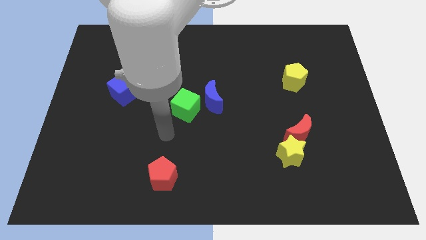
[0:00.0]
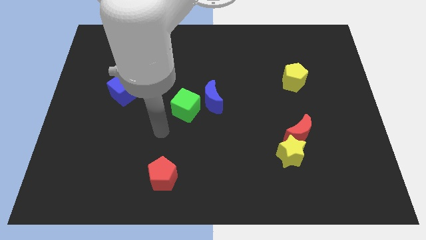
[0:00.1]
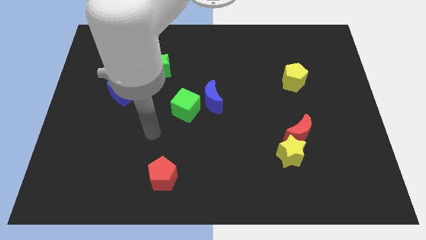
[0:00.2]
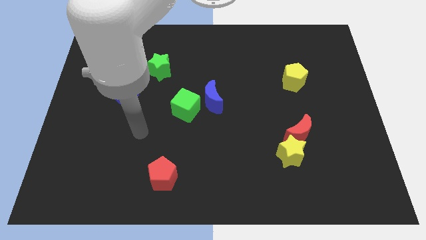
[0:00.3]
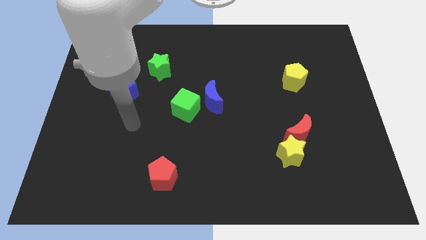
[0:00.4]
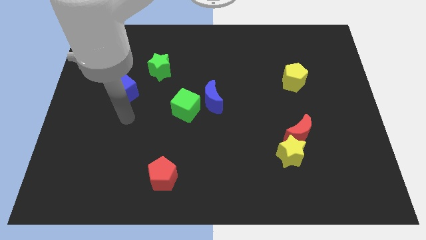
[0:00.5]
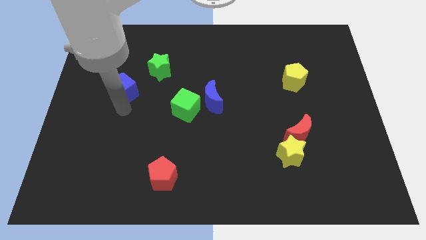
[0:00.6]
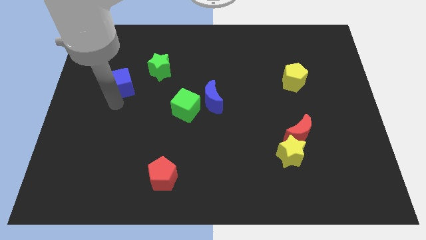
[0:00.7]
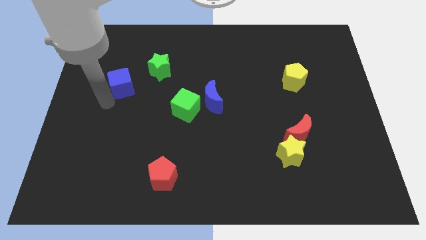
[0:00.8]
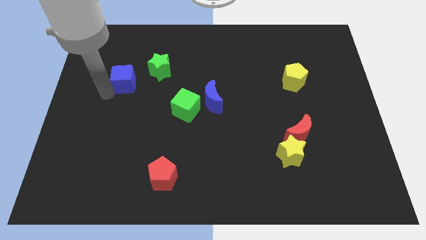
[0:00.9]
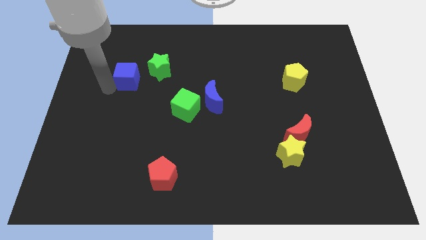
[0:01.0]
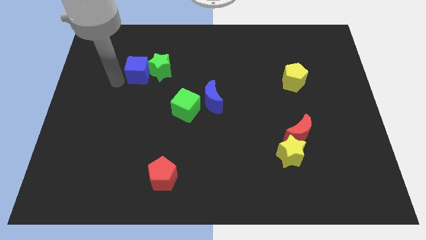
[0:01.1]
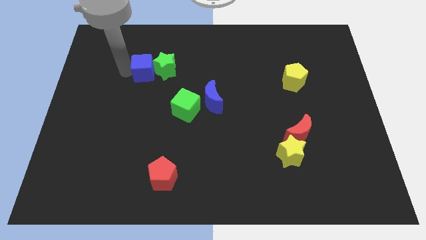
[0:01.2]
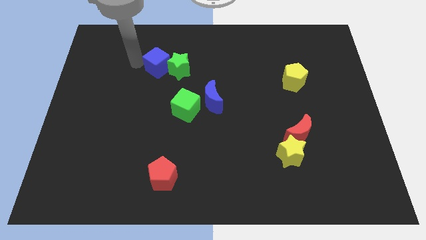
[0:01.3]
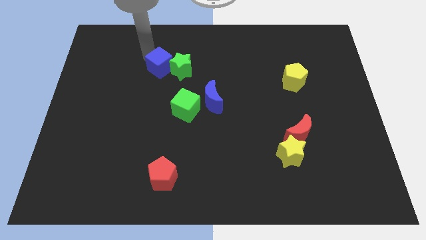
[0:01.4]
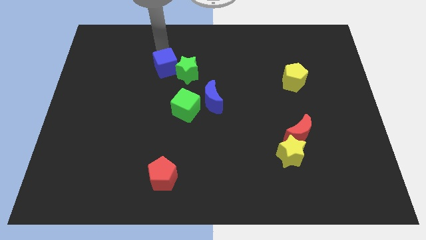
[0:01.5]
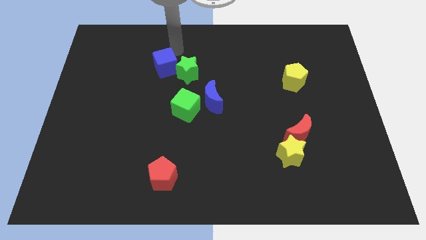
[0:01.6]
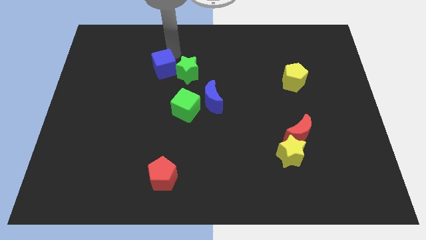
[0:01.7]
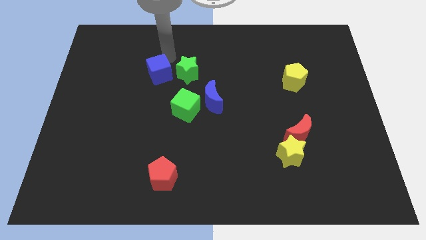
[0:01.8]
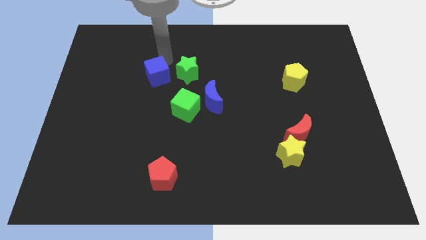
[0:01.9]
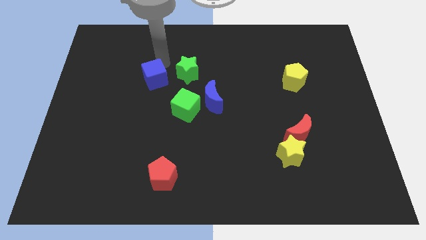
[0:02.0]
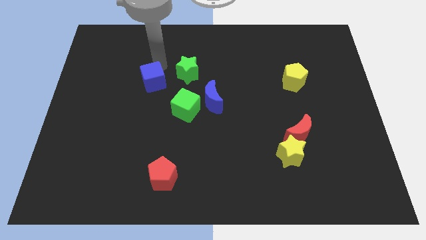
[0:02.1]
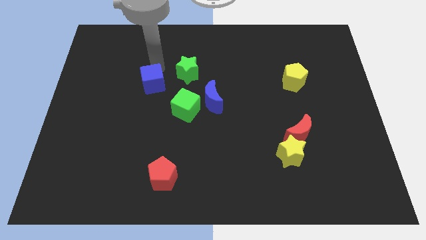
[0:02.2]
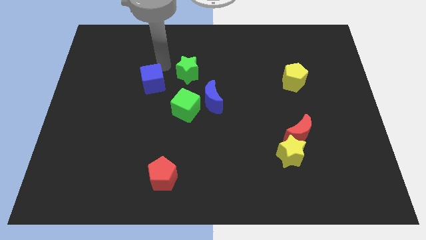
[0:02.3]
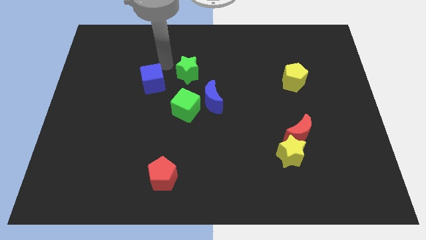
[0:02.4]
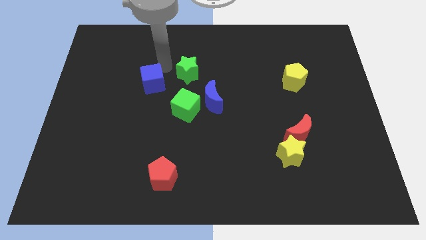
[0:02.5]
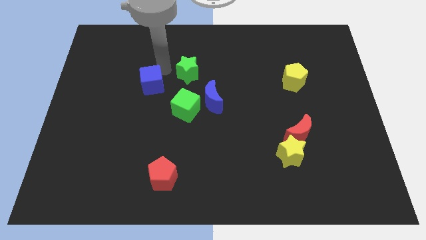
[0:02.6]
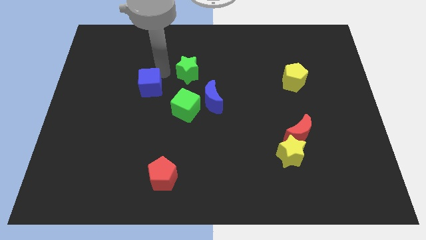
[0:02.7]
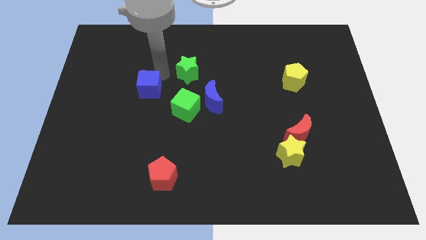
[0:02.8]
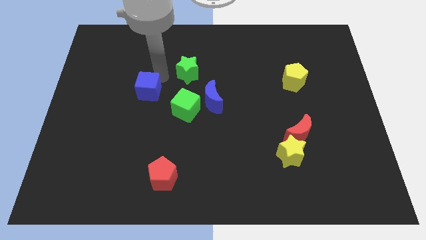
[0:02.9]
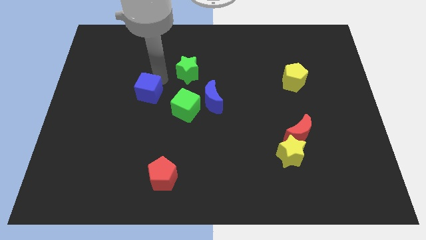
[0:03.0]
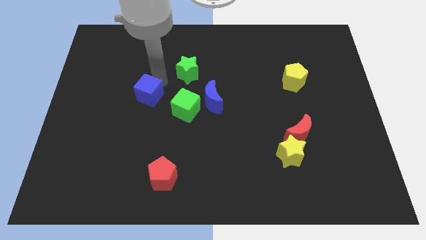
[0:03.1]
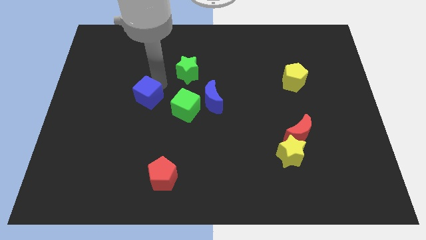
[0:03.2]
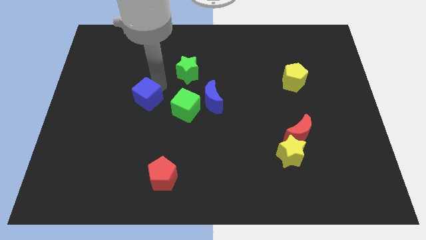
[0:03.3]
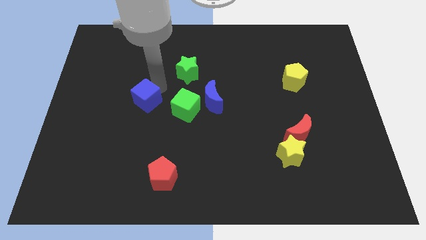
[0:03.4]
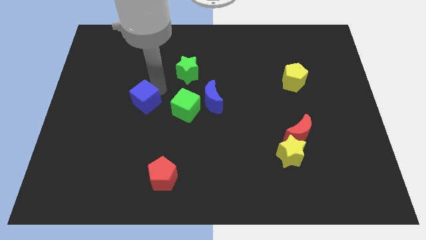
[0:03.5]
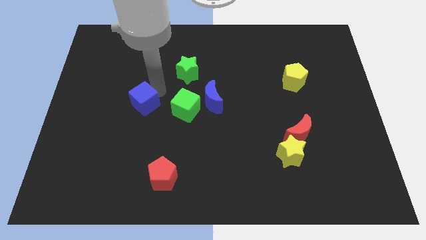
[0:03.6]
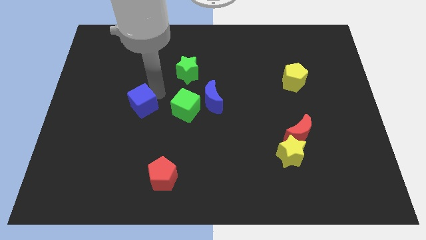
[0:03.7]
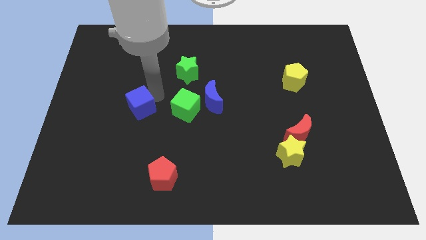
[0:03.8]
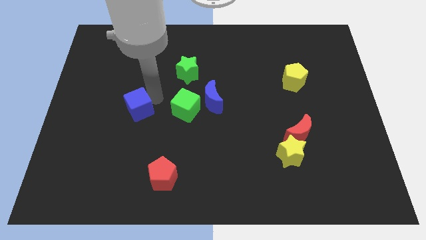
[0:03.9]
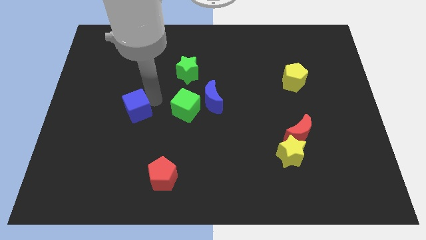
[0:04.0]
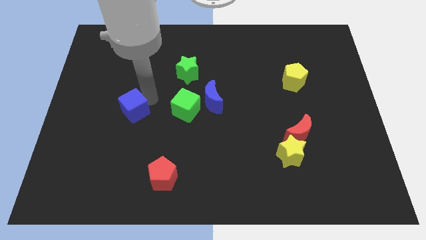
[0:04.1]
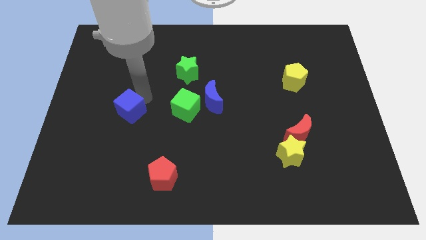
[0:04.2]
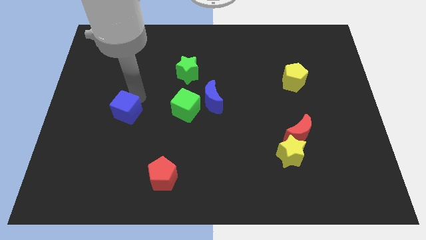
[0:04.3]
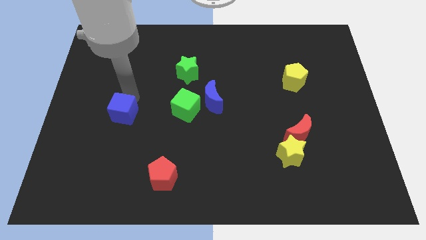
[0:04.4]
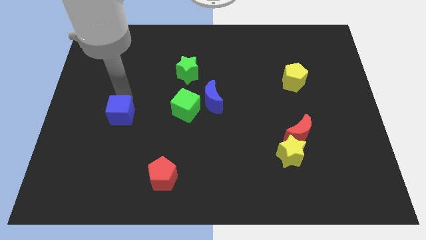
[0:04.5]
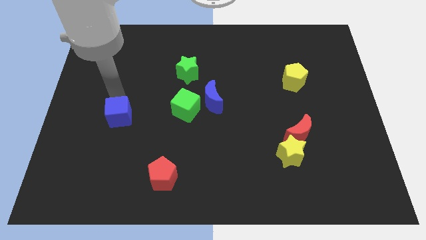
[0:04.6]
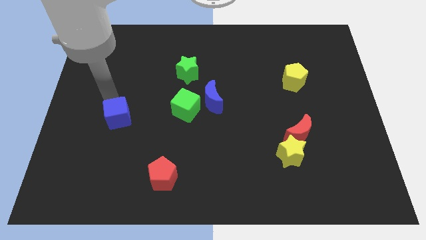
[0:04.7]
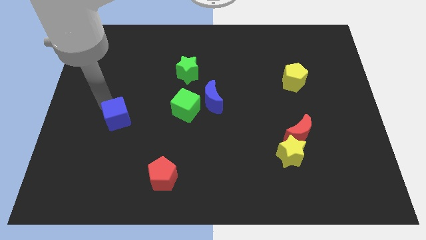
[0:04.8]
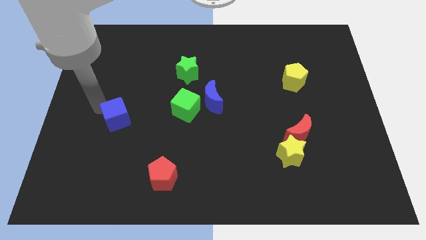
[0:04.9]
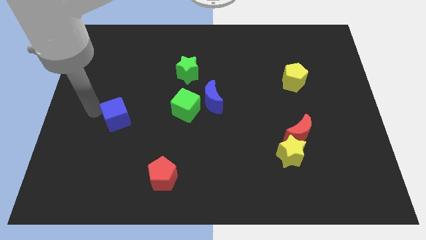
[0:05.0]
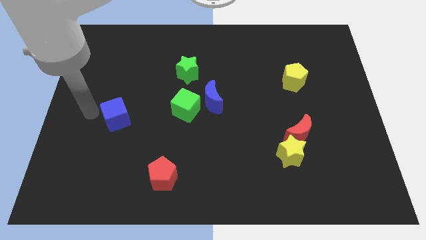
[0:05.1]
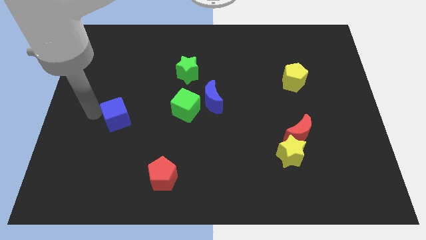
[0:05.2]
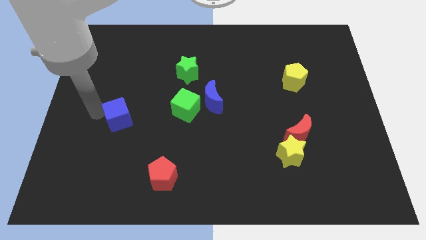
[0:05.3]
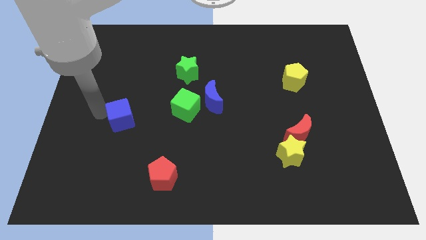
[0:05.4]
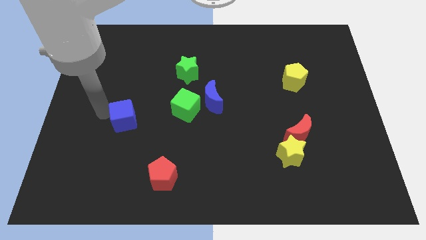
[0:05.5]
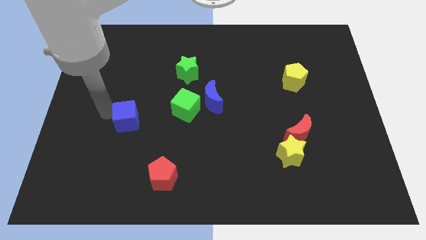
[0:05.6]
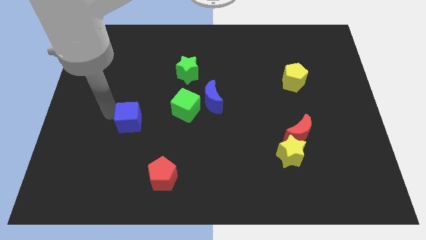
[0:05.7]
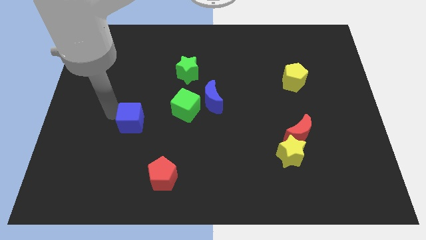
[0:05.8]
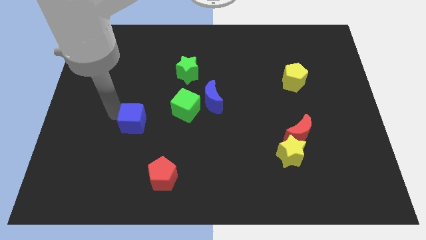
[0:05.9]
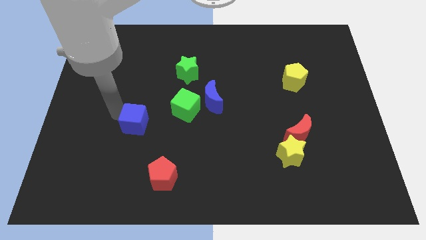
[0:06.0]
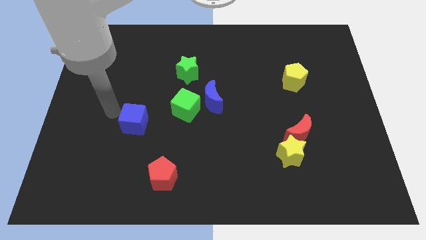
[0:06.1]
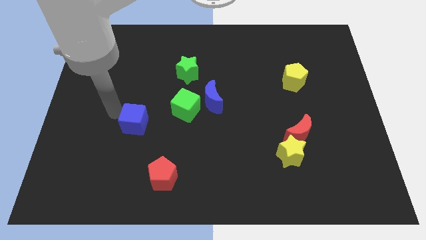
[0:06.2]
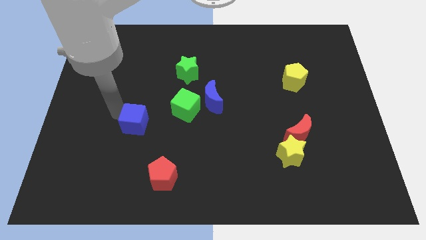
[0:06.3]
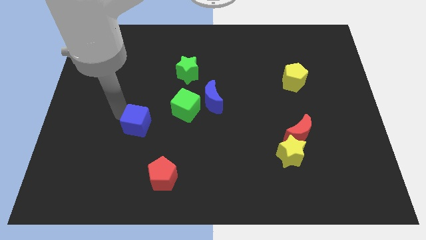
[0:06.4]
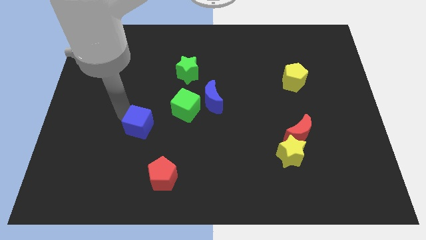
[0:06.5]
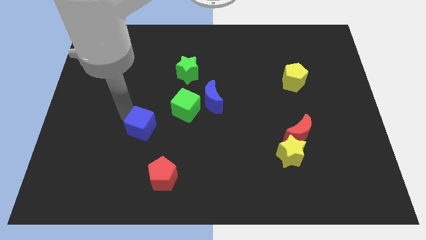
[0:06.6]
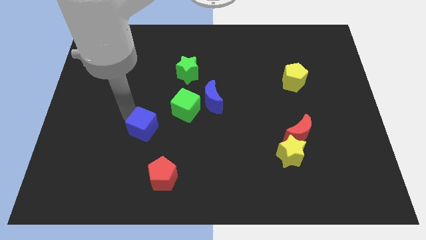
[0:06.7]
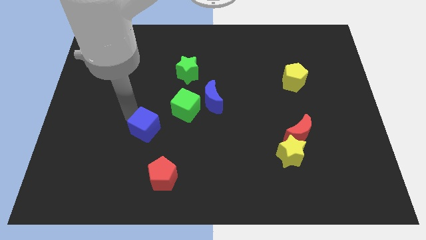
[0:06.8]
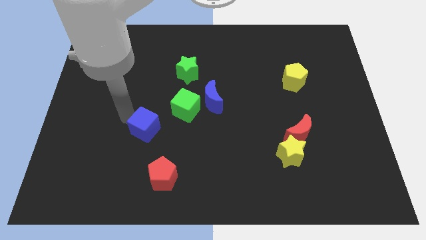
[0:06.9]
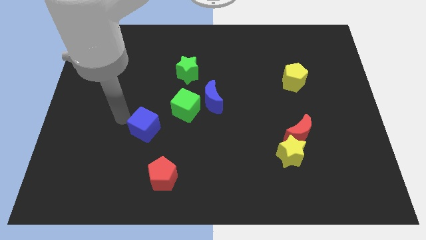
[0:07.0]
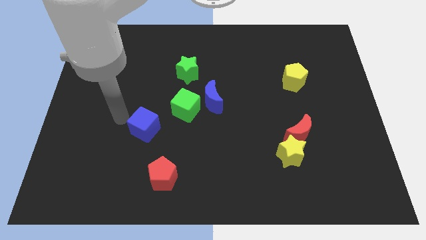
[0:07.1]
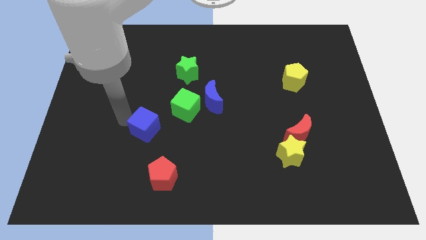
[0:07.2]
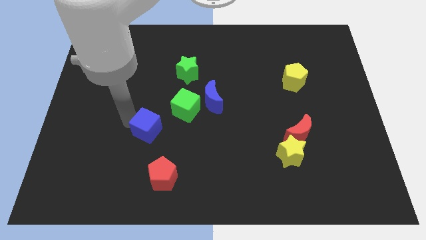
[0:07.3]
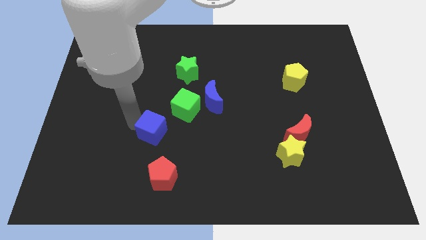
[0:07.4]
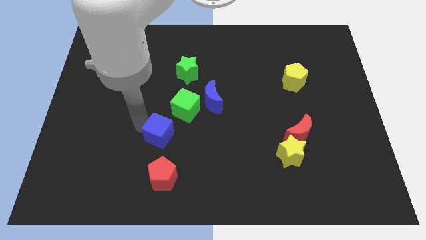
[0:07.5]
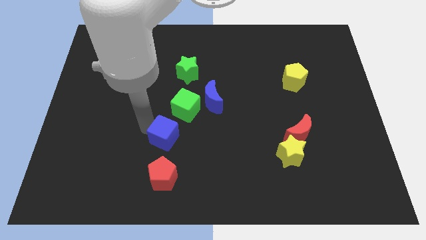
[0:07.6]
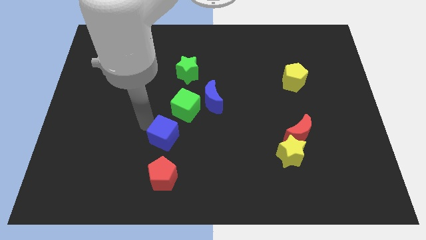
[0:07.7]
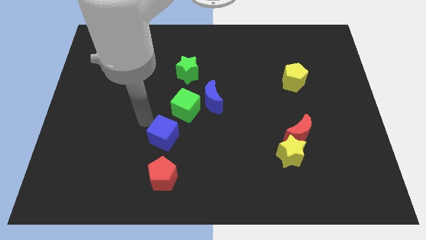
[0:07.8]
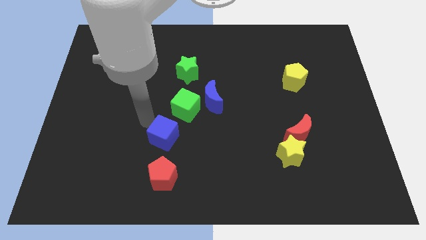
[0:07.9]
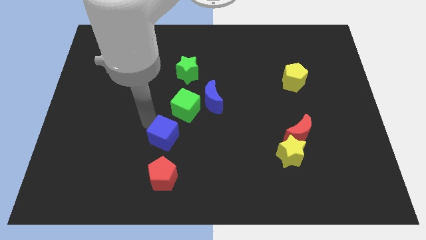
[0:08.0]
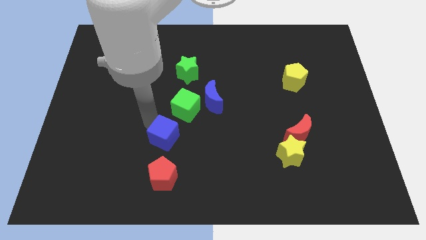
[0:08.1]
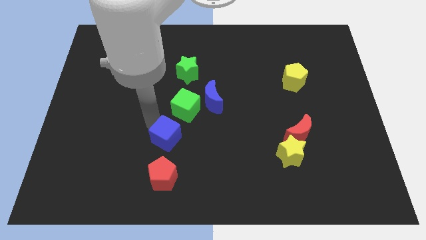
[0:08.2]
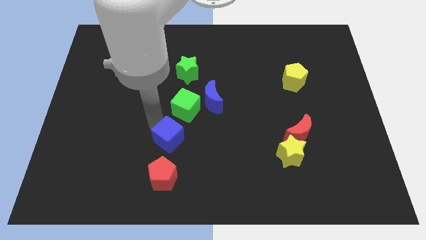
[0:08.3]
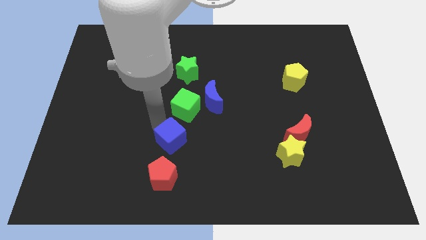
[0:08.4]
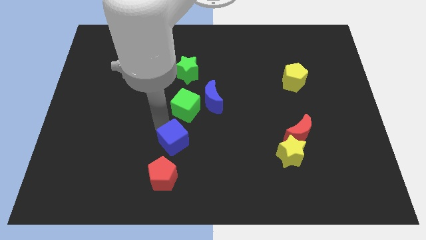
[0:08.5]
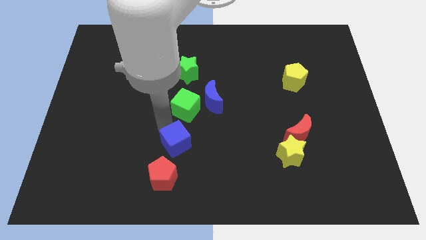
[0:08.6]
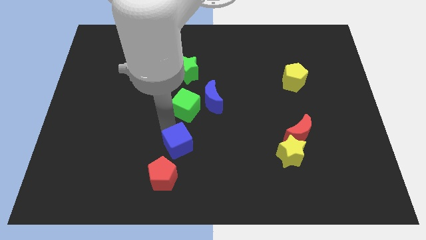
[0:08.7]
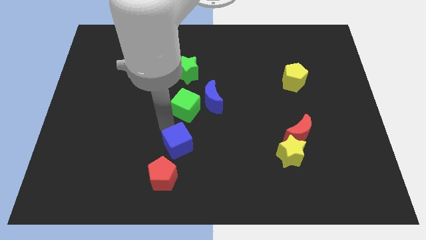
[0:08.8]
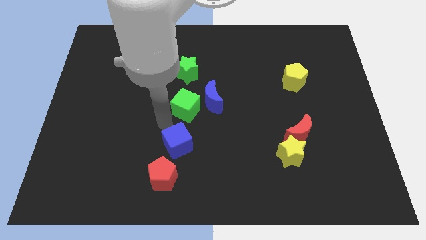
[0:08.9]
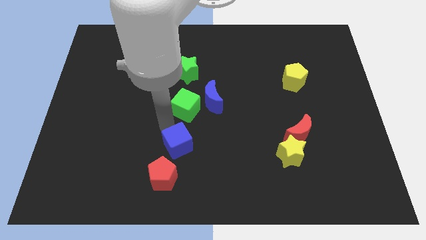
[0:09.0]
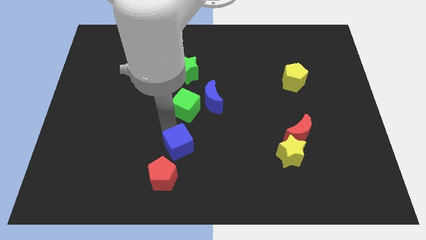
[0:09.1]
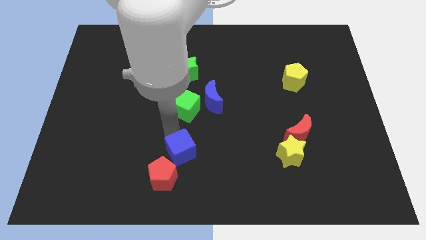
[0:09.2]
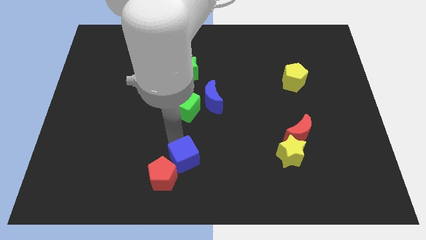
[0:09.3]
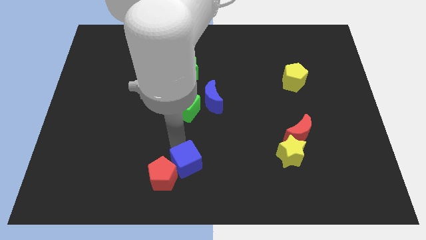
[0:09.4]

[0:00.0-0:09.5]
slide the blue cube to the bottom
